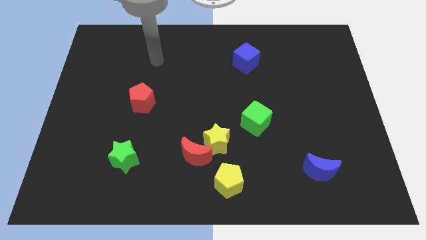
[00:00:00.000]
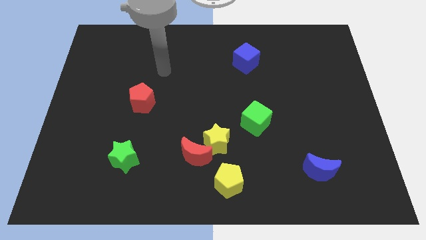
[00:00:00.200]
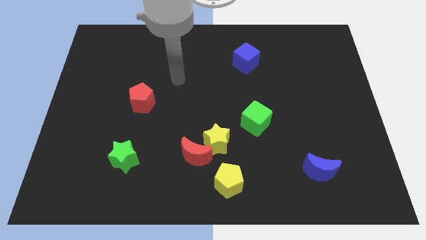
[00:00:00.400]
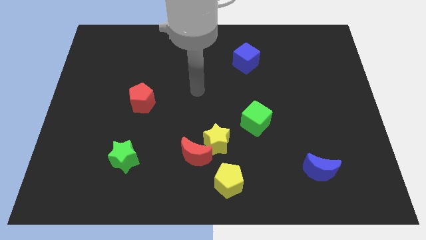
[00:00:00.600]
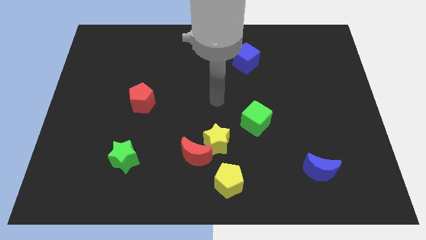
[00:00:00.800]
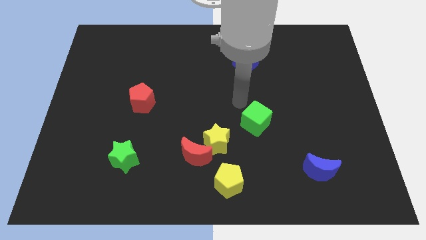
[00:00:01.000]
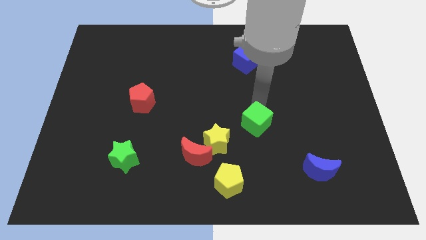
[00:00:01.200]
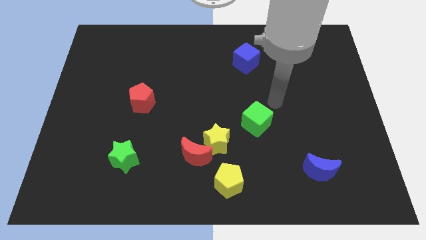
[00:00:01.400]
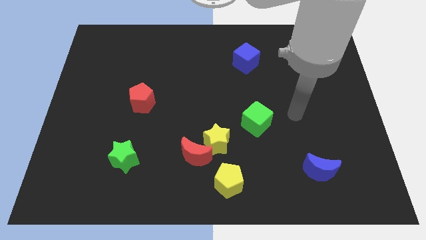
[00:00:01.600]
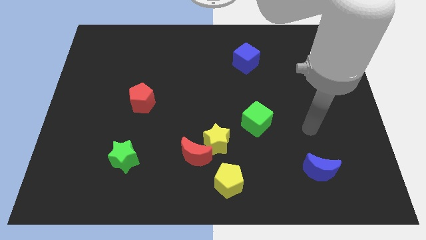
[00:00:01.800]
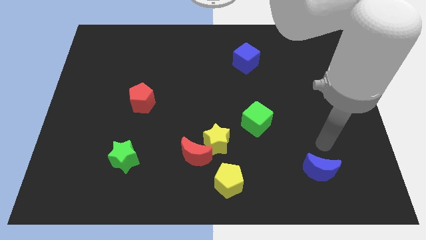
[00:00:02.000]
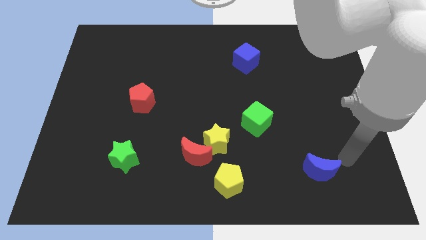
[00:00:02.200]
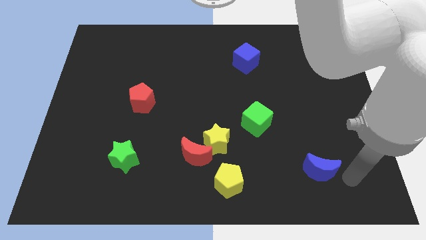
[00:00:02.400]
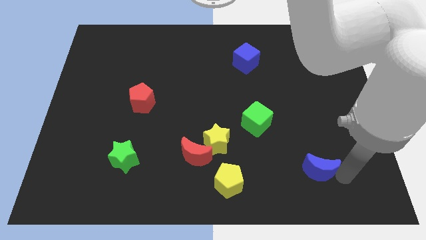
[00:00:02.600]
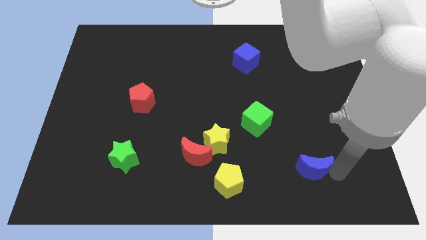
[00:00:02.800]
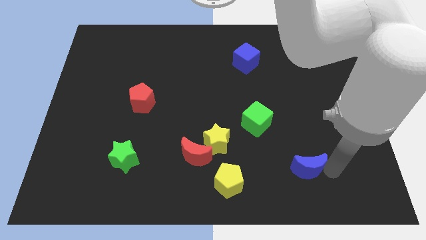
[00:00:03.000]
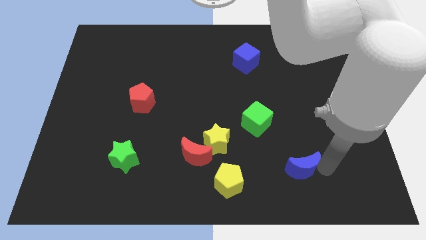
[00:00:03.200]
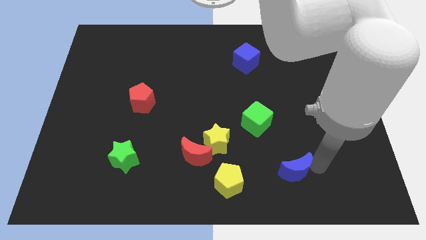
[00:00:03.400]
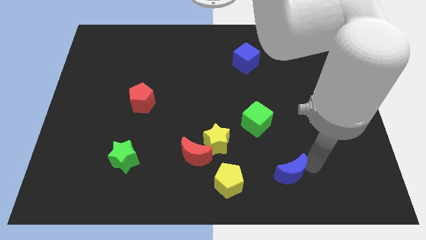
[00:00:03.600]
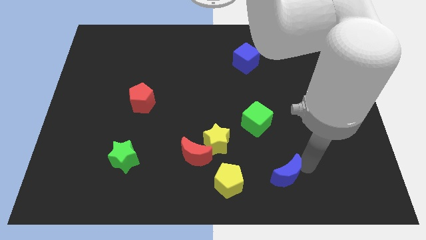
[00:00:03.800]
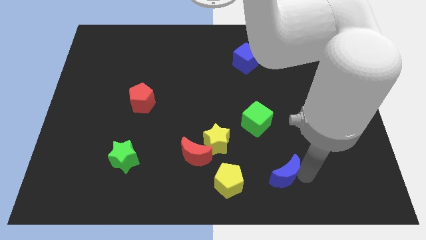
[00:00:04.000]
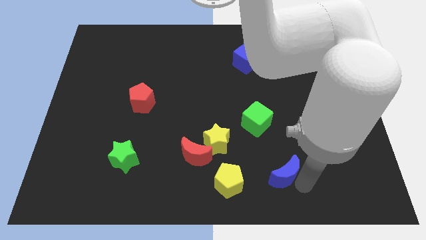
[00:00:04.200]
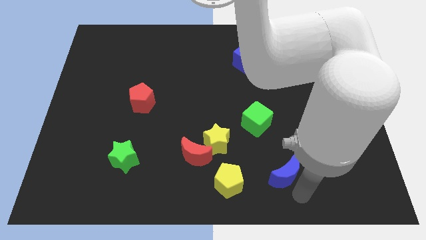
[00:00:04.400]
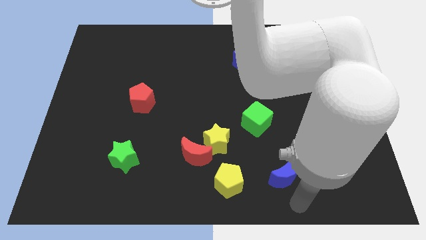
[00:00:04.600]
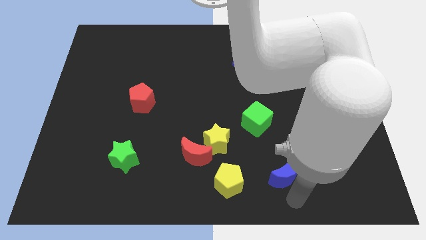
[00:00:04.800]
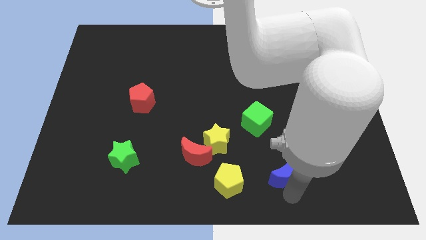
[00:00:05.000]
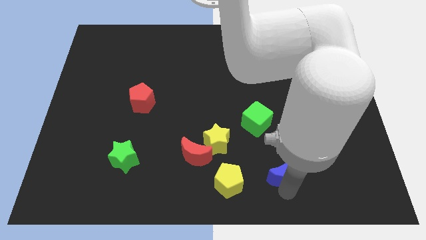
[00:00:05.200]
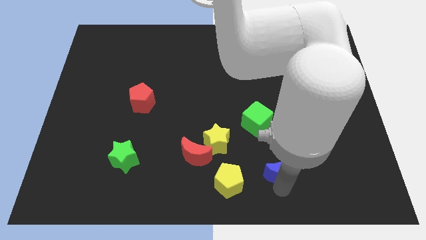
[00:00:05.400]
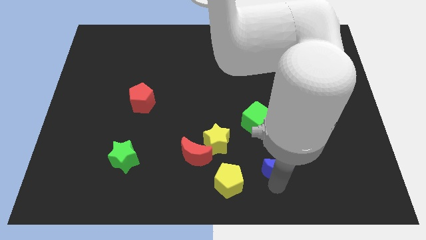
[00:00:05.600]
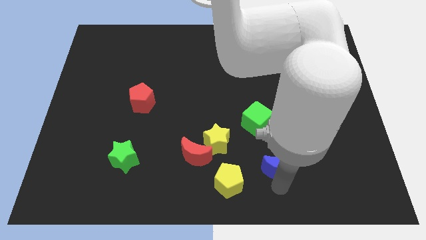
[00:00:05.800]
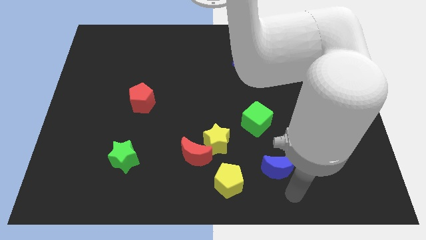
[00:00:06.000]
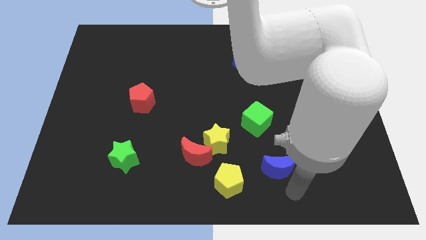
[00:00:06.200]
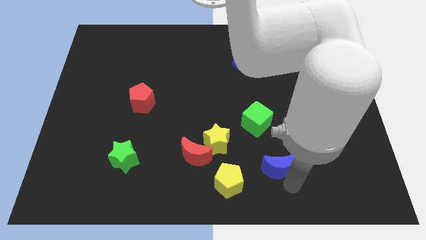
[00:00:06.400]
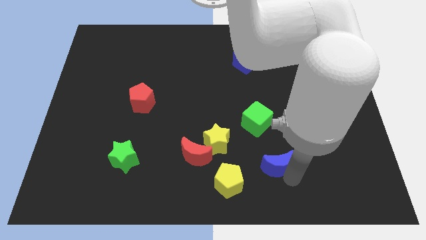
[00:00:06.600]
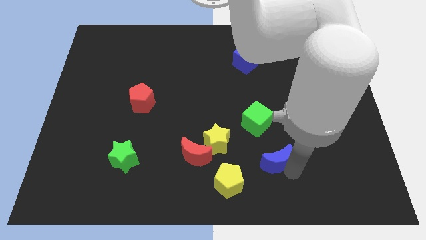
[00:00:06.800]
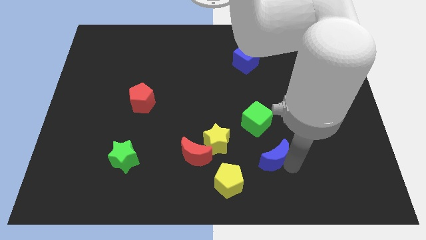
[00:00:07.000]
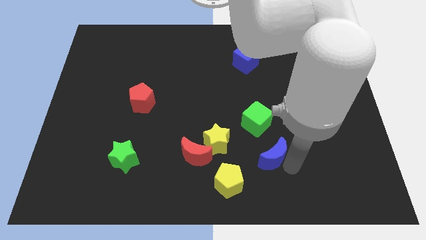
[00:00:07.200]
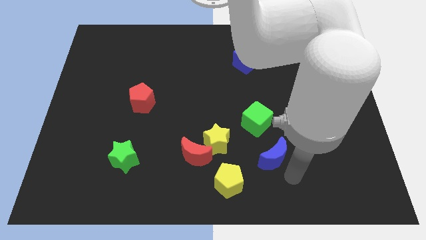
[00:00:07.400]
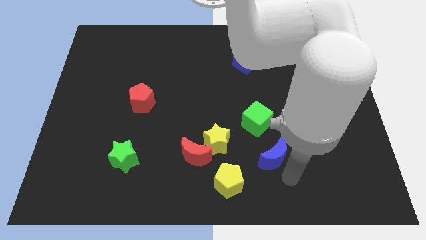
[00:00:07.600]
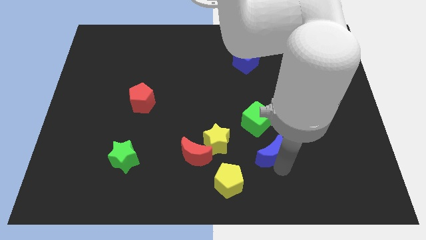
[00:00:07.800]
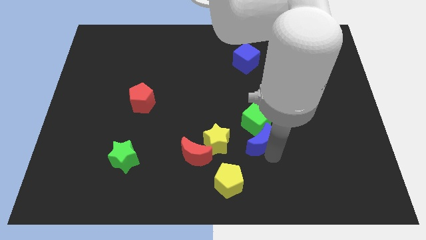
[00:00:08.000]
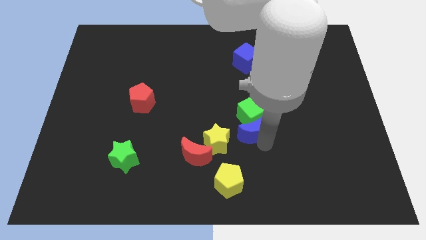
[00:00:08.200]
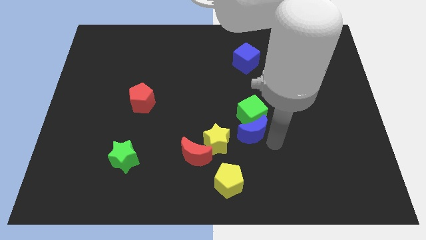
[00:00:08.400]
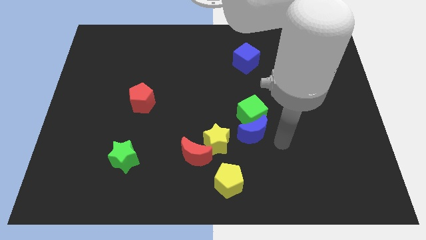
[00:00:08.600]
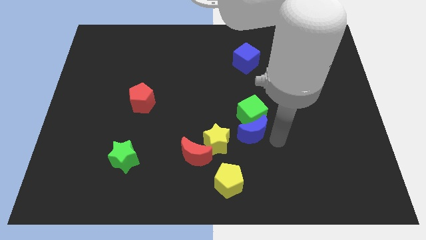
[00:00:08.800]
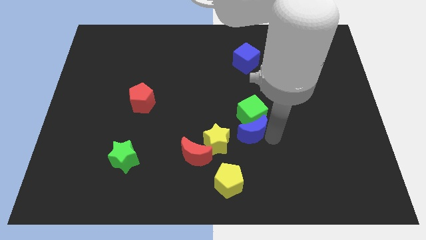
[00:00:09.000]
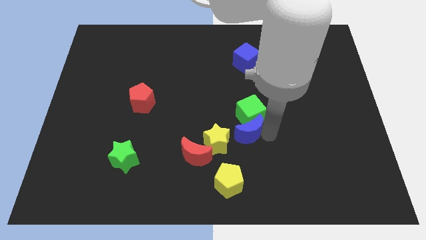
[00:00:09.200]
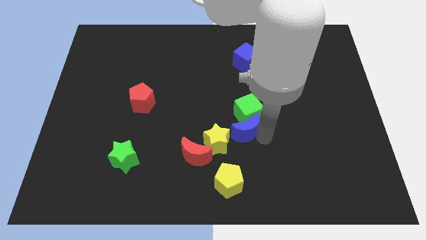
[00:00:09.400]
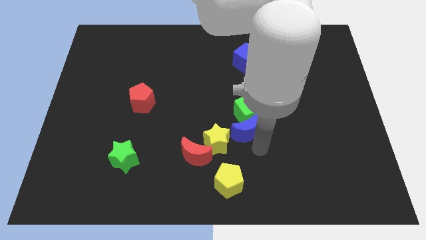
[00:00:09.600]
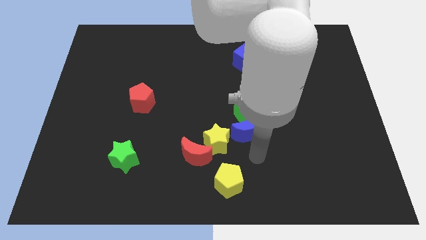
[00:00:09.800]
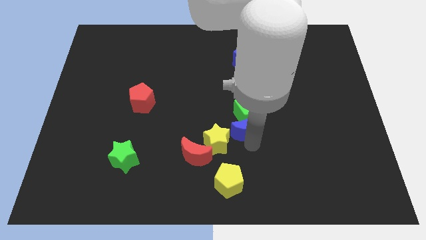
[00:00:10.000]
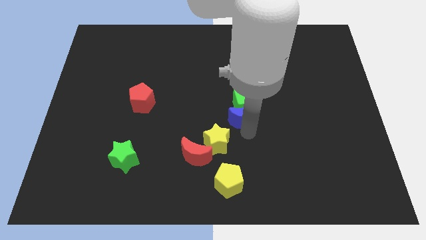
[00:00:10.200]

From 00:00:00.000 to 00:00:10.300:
move the blue moon up and left

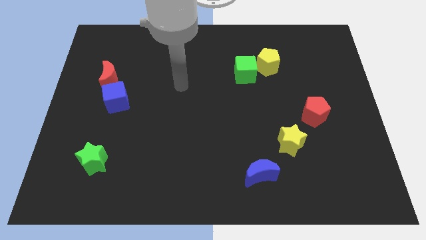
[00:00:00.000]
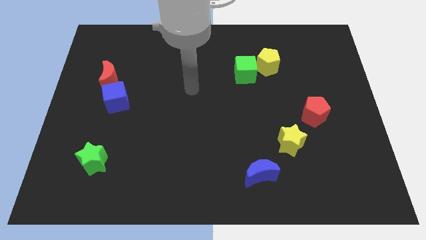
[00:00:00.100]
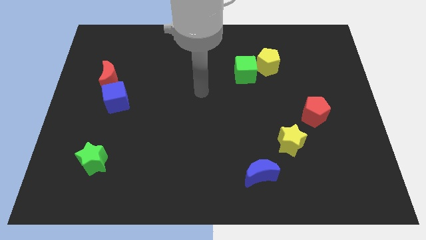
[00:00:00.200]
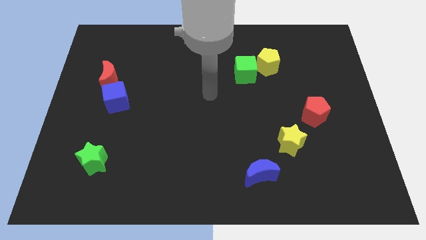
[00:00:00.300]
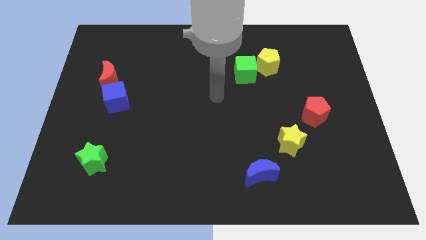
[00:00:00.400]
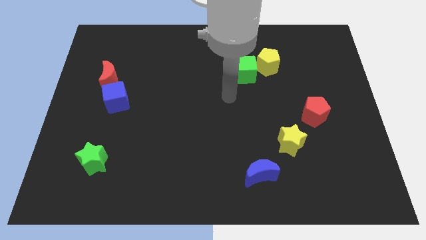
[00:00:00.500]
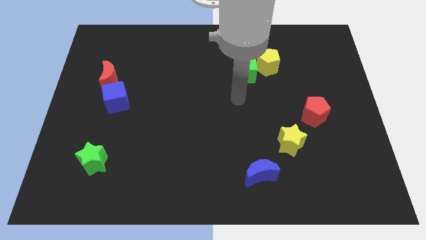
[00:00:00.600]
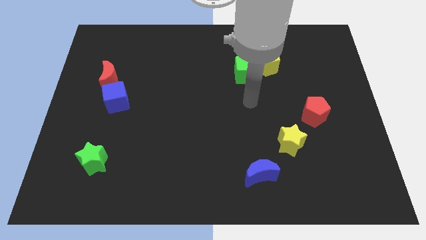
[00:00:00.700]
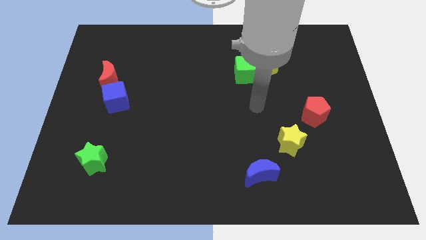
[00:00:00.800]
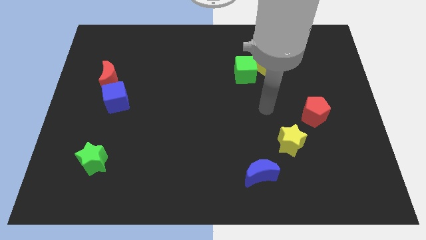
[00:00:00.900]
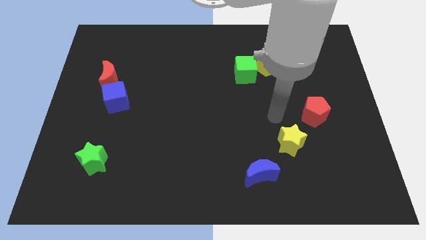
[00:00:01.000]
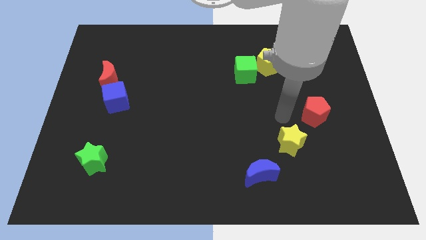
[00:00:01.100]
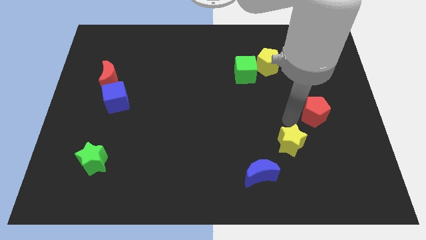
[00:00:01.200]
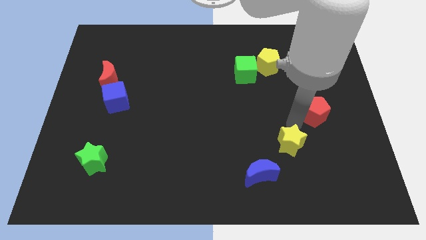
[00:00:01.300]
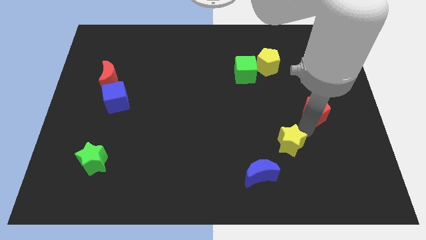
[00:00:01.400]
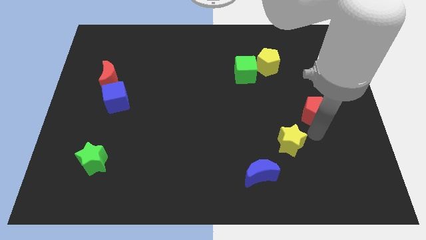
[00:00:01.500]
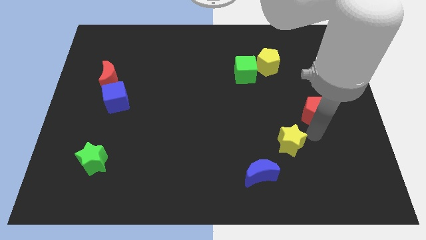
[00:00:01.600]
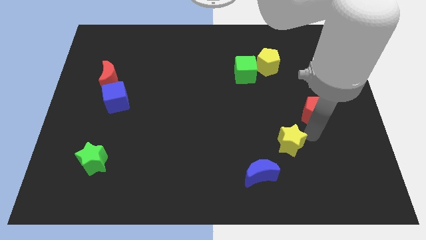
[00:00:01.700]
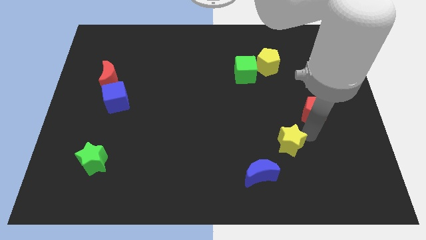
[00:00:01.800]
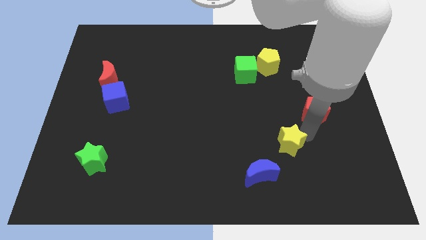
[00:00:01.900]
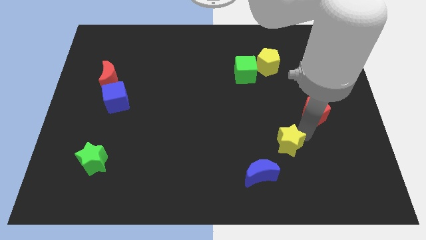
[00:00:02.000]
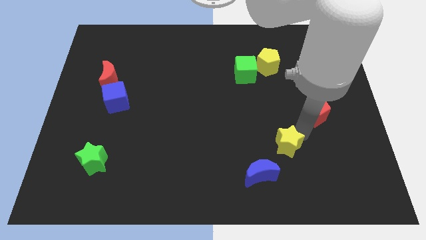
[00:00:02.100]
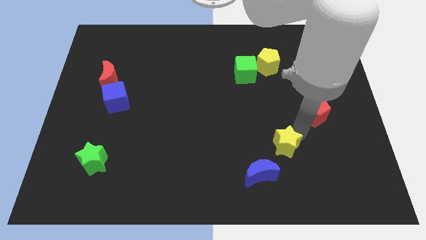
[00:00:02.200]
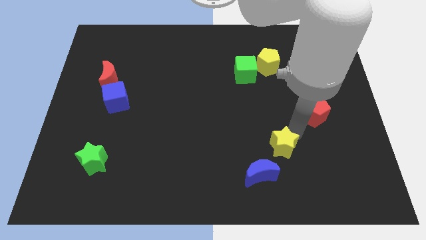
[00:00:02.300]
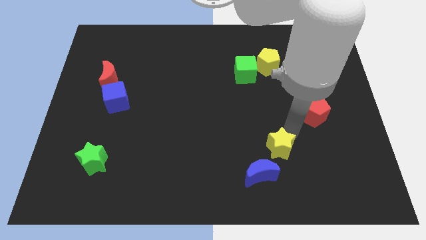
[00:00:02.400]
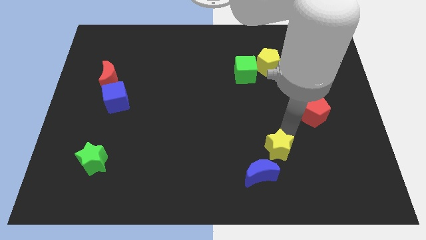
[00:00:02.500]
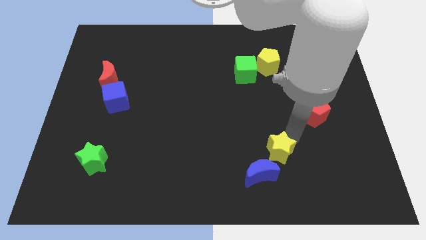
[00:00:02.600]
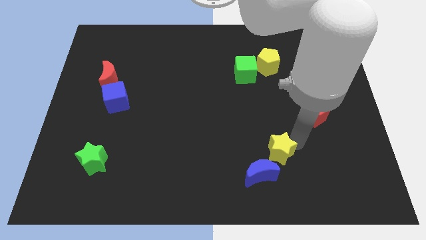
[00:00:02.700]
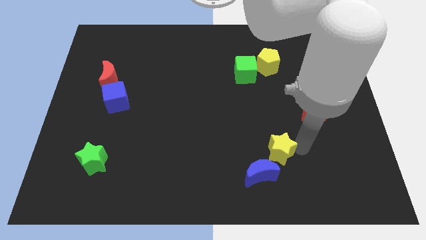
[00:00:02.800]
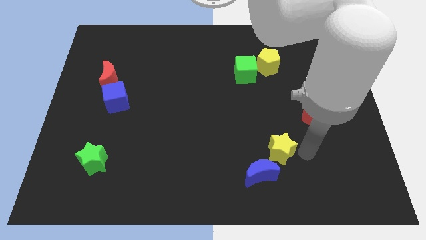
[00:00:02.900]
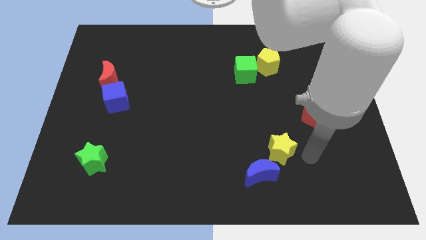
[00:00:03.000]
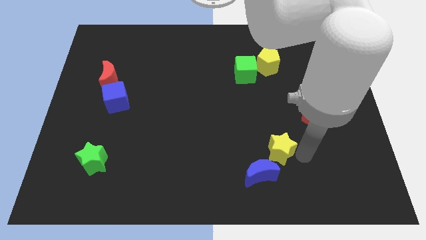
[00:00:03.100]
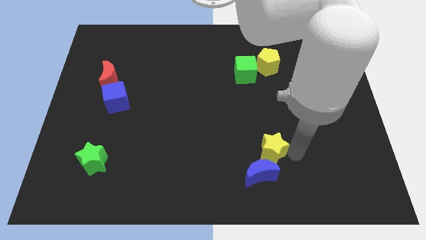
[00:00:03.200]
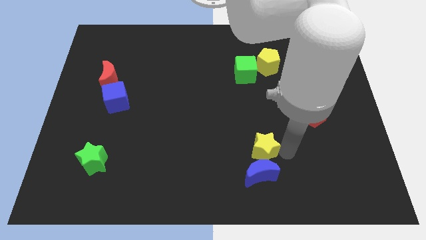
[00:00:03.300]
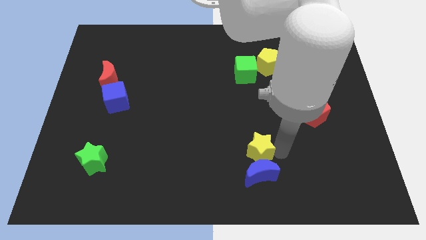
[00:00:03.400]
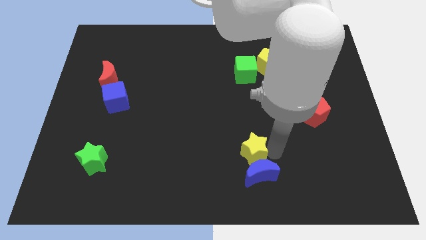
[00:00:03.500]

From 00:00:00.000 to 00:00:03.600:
slide the yellow star left a bit
